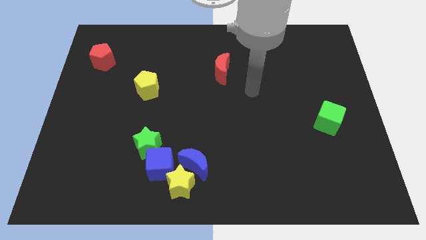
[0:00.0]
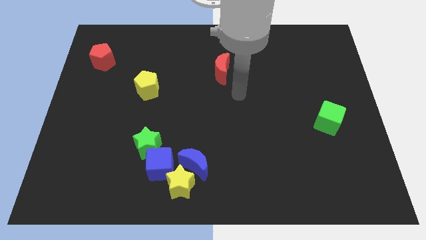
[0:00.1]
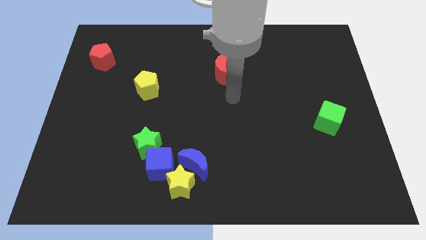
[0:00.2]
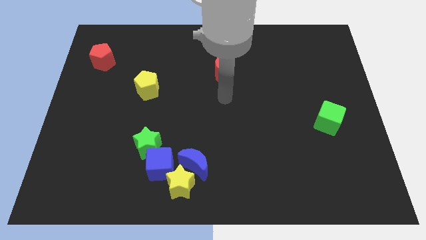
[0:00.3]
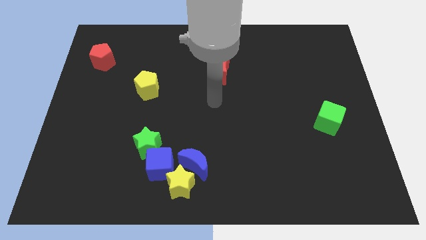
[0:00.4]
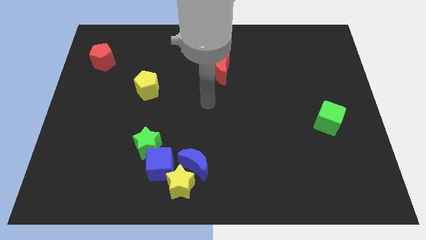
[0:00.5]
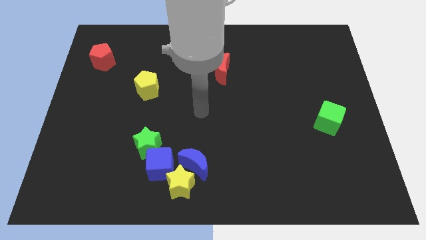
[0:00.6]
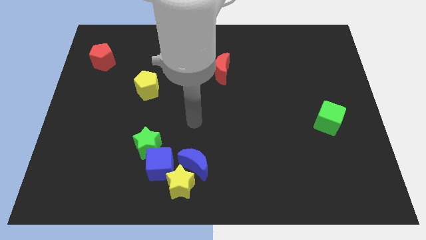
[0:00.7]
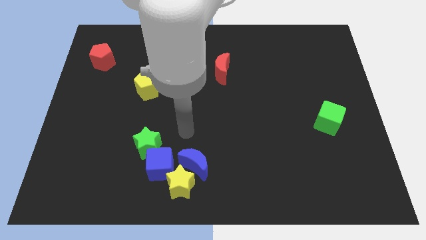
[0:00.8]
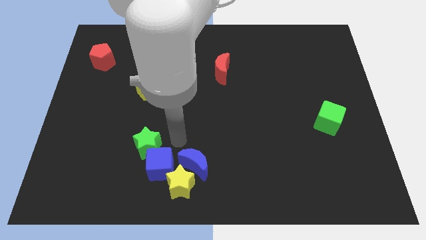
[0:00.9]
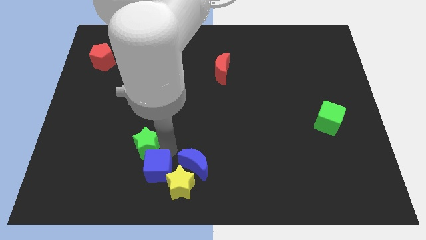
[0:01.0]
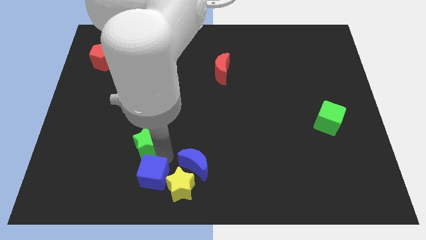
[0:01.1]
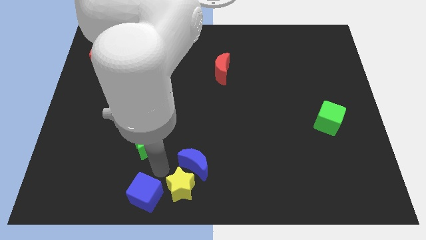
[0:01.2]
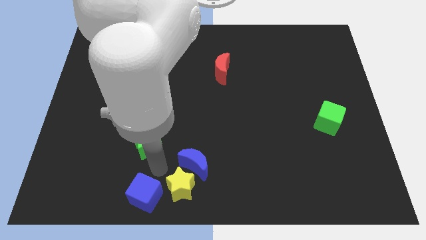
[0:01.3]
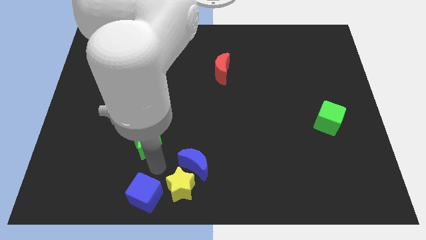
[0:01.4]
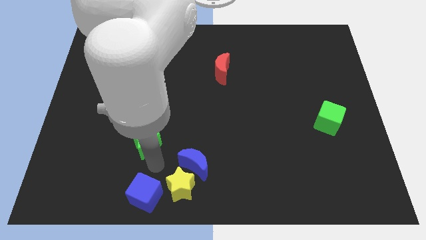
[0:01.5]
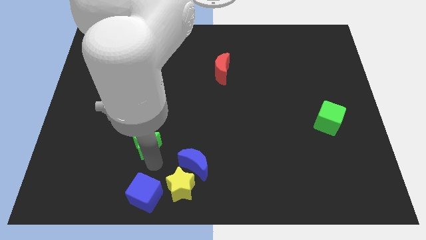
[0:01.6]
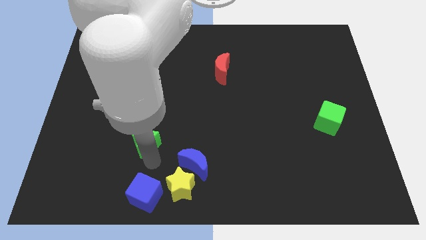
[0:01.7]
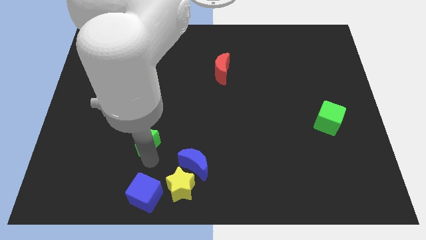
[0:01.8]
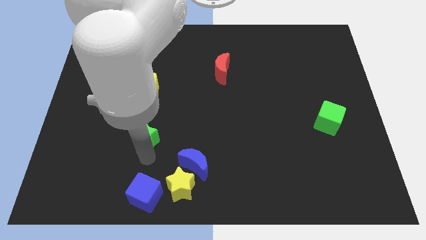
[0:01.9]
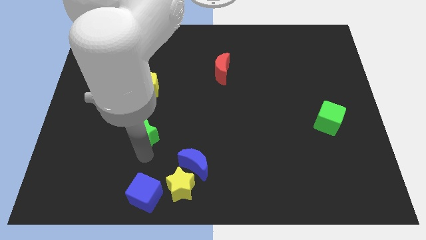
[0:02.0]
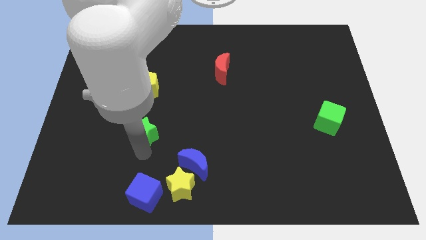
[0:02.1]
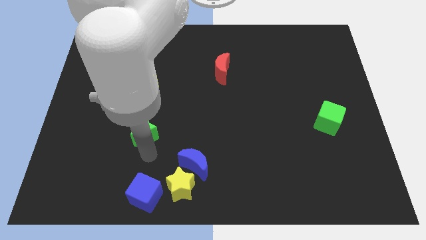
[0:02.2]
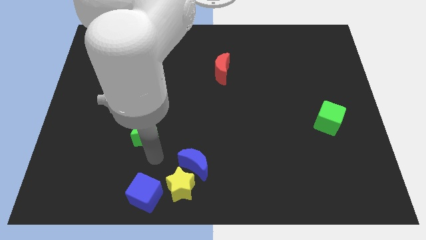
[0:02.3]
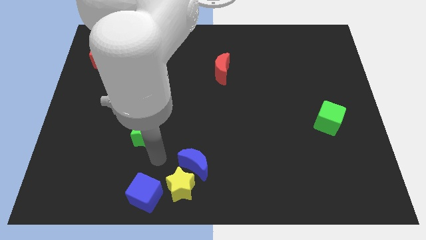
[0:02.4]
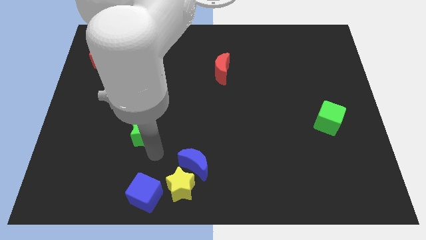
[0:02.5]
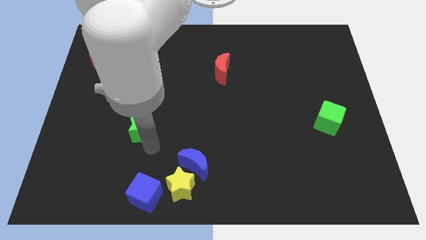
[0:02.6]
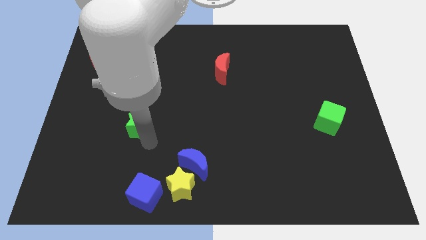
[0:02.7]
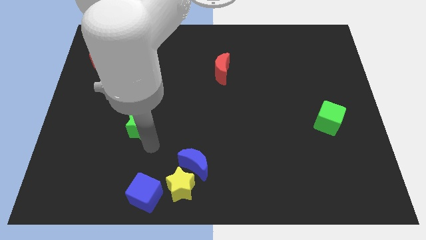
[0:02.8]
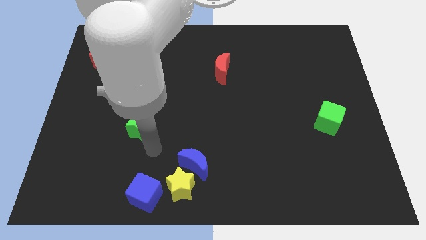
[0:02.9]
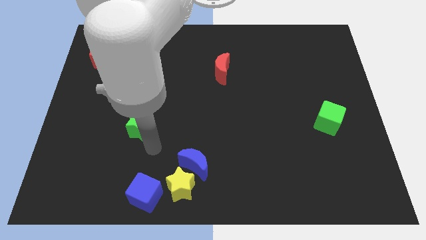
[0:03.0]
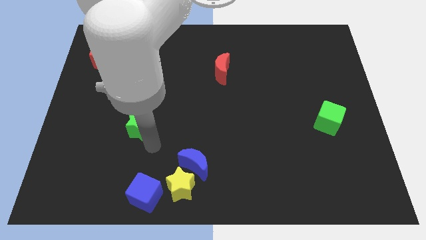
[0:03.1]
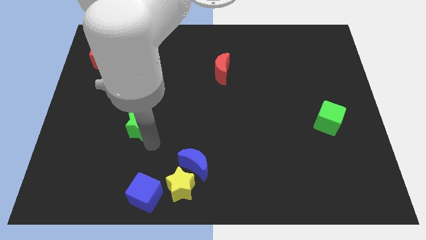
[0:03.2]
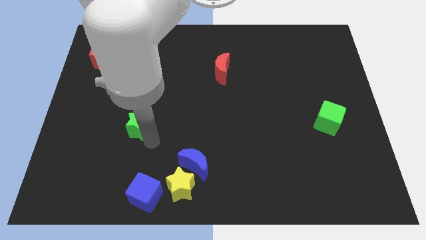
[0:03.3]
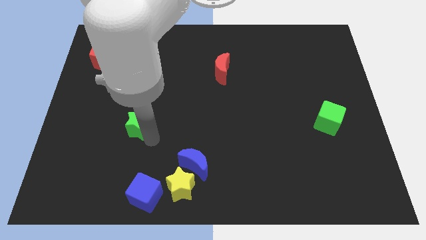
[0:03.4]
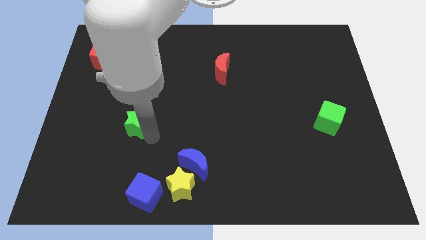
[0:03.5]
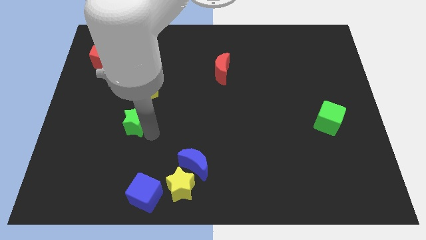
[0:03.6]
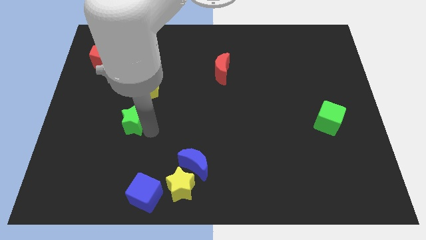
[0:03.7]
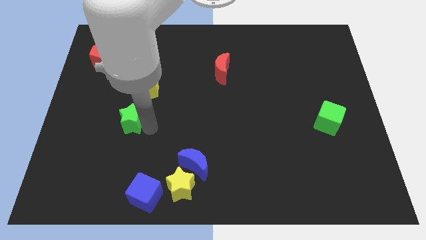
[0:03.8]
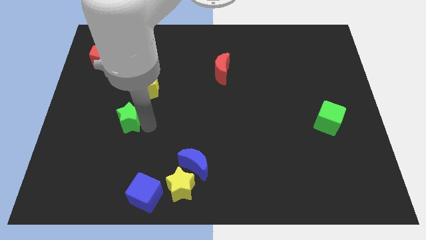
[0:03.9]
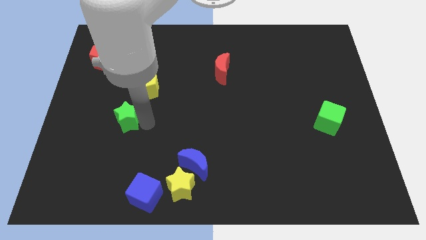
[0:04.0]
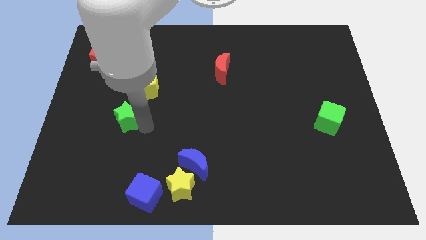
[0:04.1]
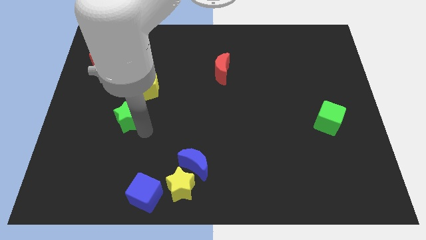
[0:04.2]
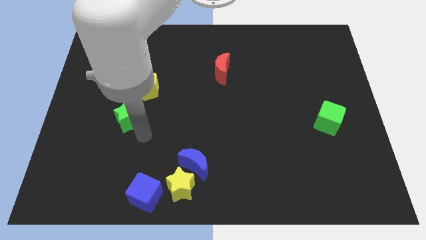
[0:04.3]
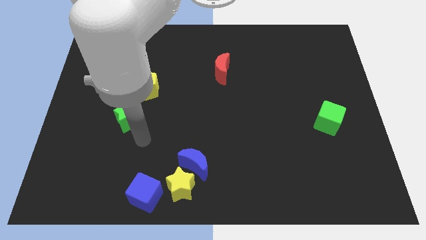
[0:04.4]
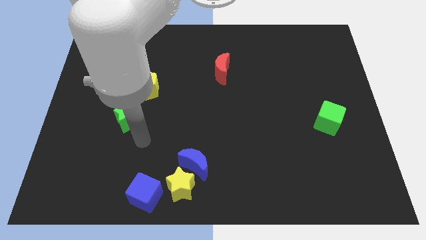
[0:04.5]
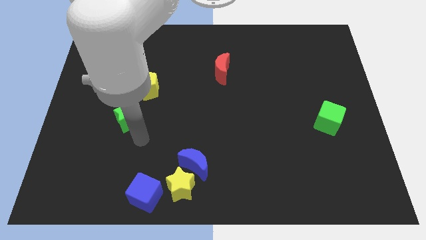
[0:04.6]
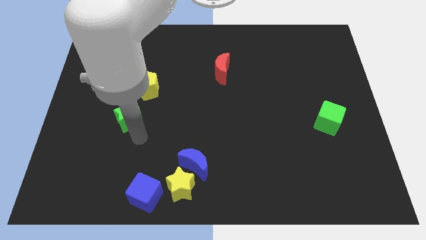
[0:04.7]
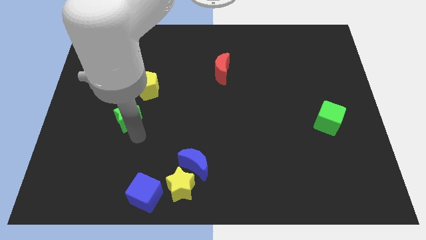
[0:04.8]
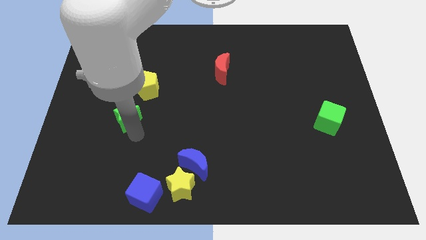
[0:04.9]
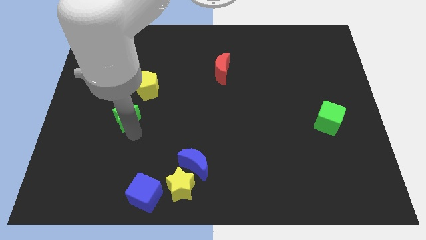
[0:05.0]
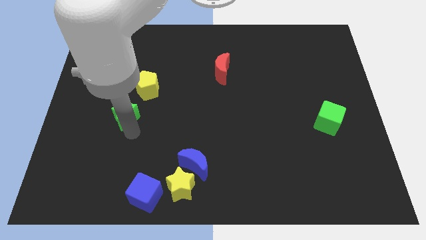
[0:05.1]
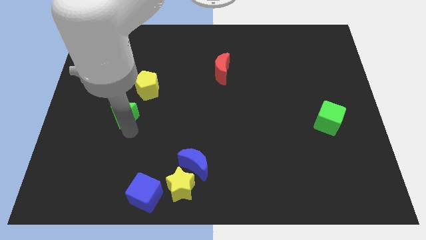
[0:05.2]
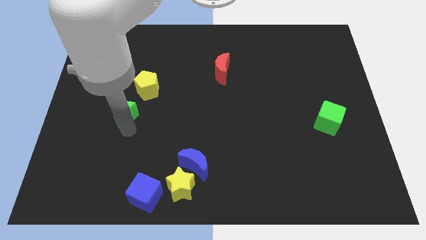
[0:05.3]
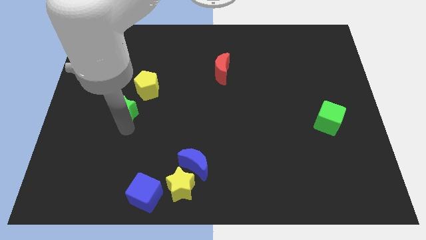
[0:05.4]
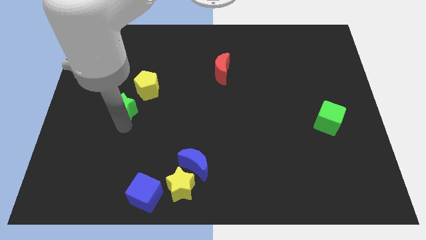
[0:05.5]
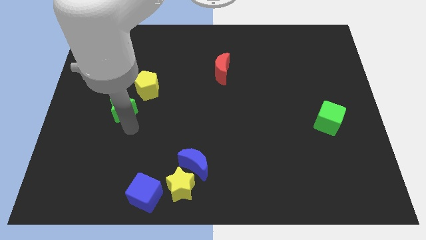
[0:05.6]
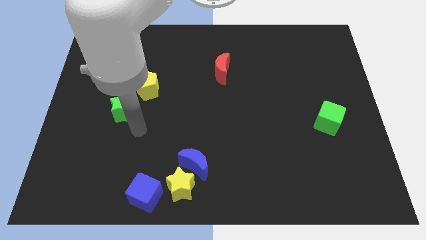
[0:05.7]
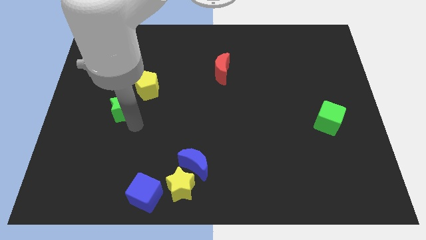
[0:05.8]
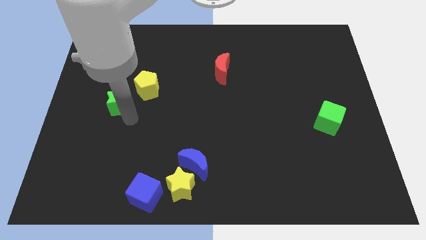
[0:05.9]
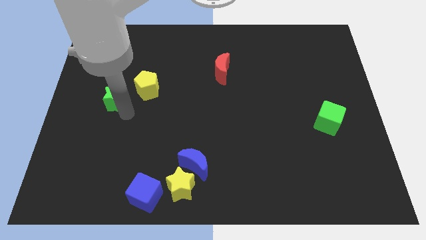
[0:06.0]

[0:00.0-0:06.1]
slide the green star to the left of the yellow pentagon

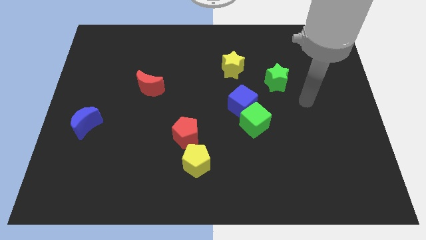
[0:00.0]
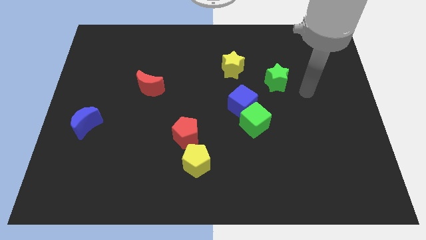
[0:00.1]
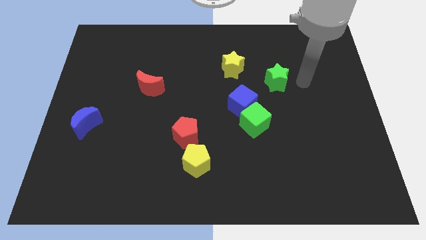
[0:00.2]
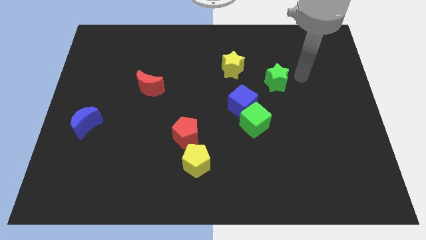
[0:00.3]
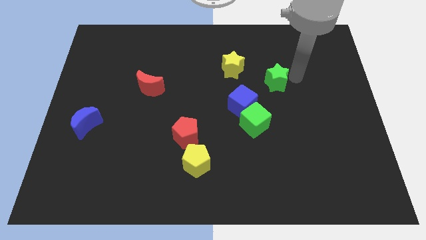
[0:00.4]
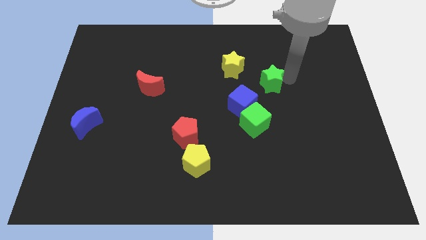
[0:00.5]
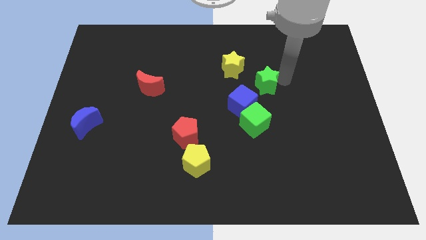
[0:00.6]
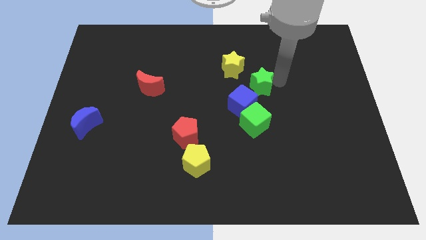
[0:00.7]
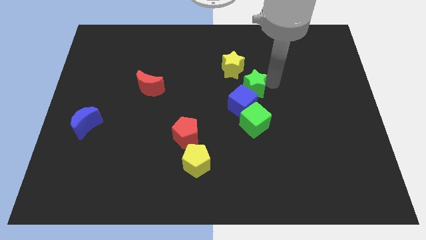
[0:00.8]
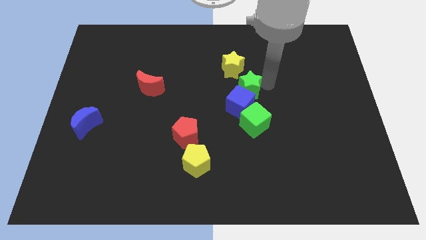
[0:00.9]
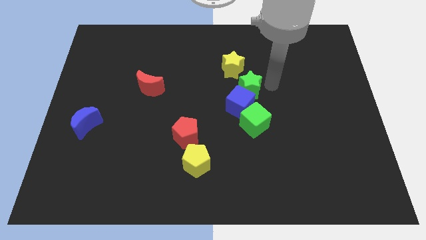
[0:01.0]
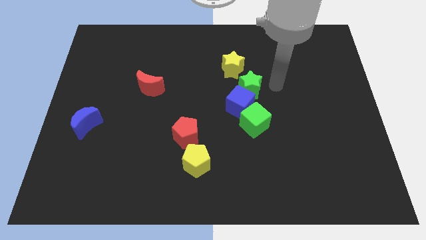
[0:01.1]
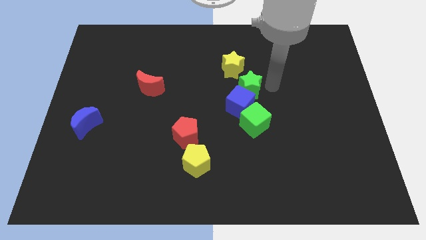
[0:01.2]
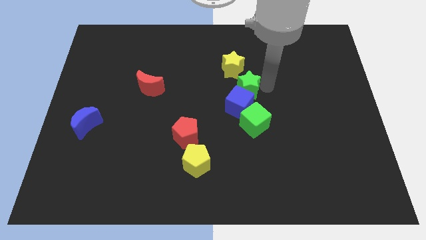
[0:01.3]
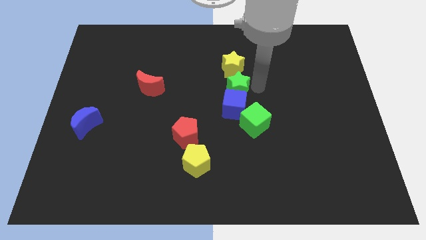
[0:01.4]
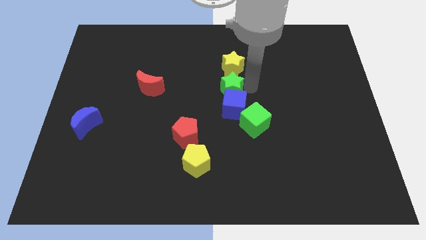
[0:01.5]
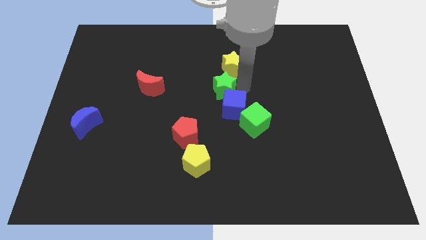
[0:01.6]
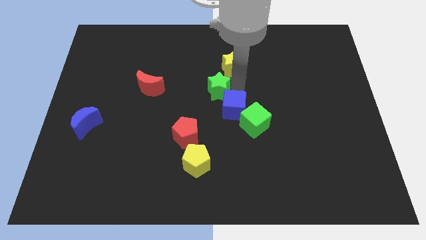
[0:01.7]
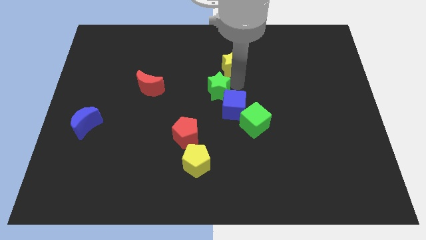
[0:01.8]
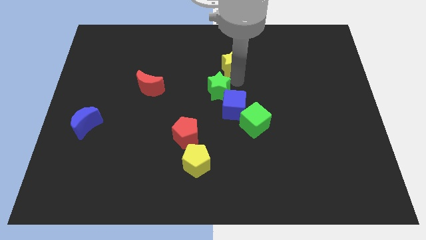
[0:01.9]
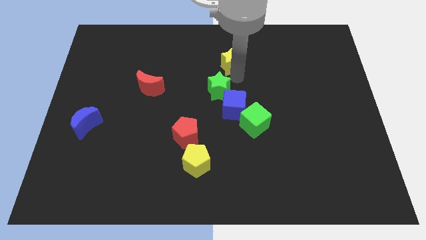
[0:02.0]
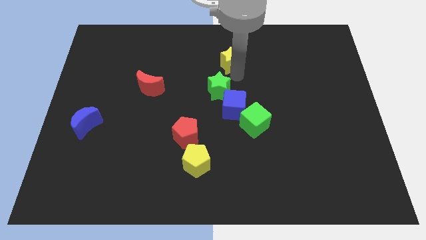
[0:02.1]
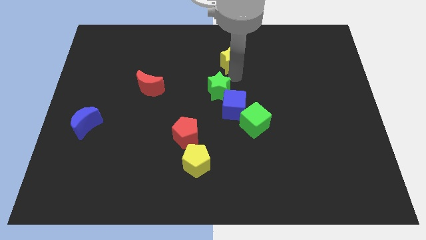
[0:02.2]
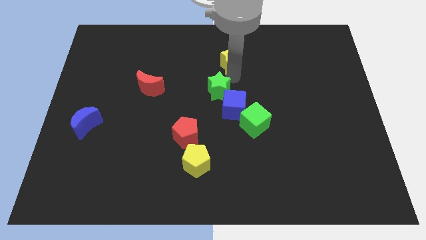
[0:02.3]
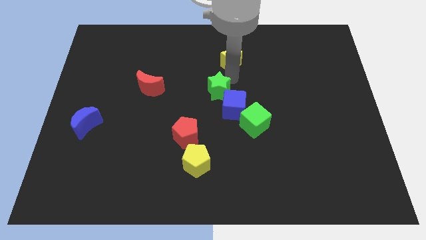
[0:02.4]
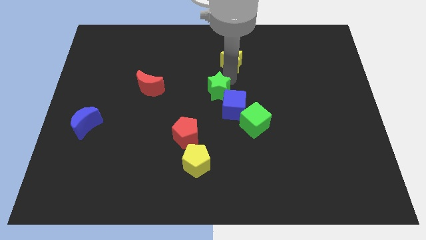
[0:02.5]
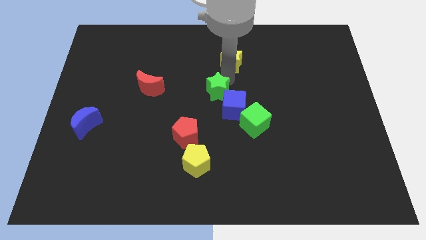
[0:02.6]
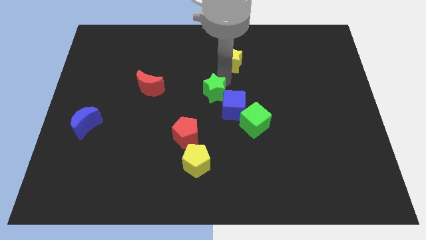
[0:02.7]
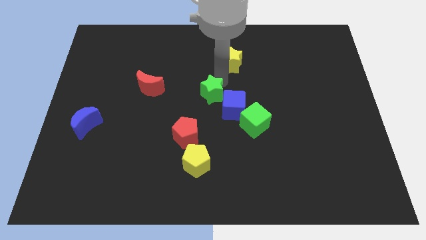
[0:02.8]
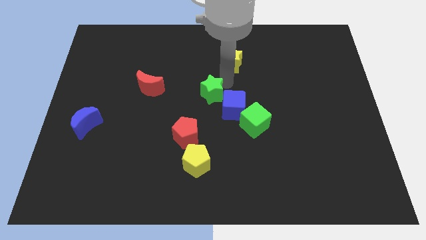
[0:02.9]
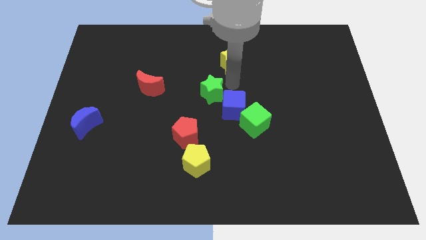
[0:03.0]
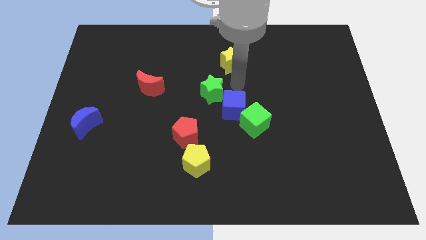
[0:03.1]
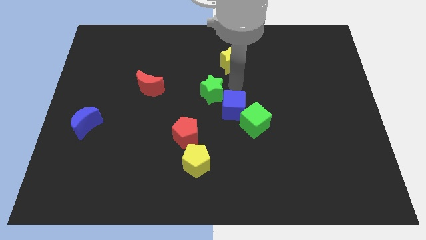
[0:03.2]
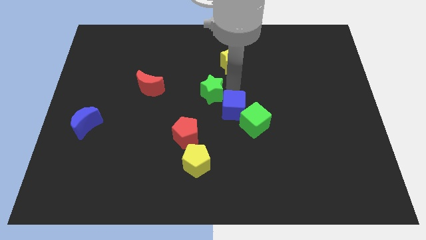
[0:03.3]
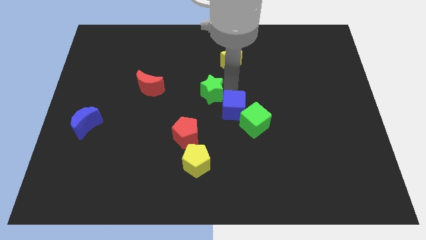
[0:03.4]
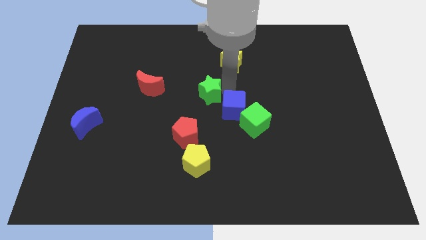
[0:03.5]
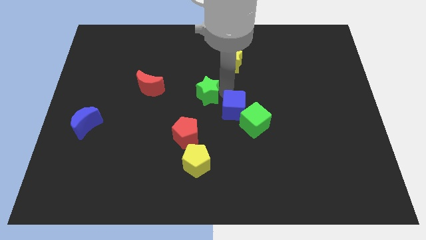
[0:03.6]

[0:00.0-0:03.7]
move the green star to the top of the red pentagon
